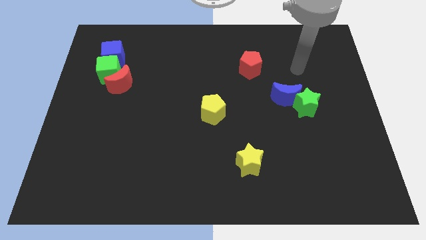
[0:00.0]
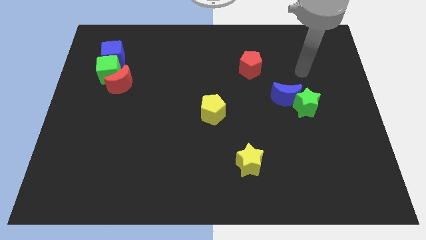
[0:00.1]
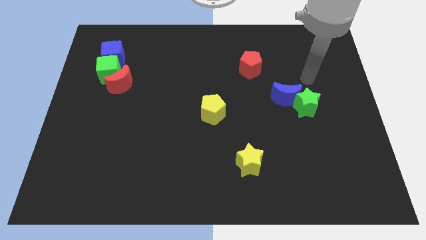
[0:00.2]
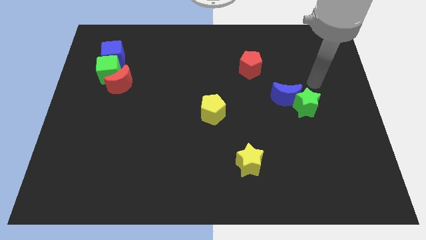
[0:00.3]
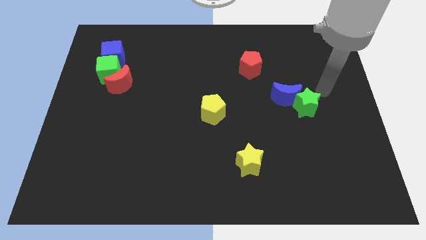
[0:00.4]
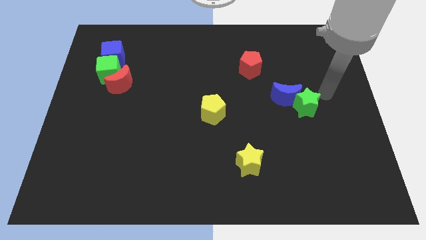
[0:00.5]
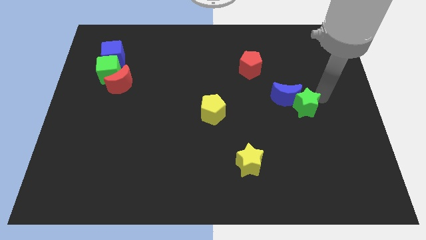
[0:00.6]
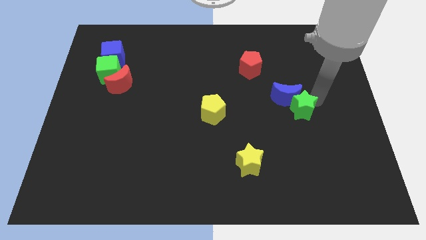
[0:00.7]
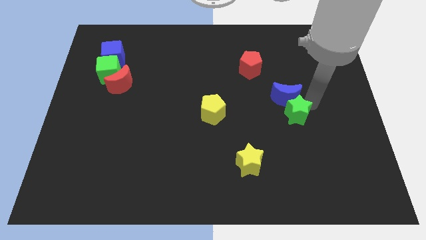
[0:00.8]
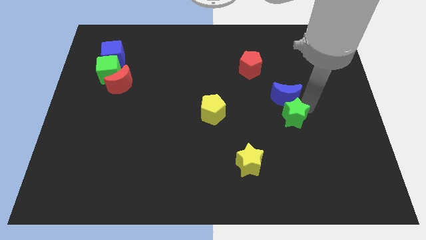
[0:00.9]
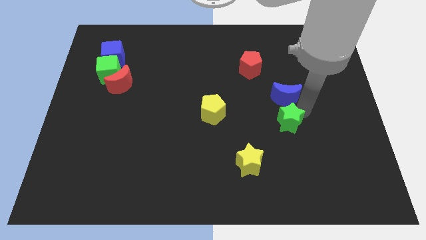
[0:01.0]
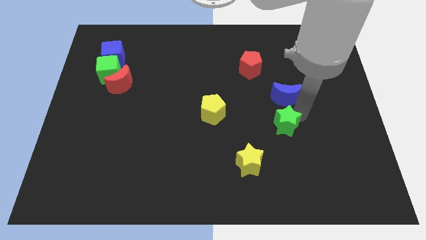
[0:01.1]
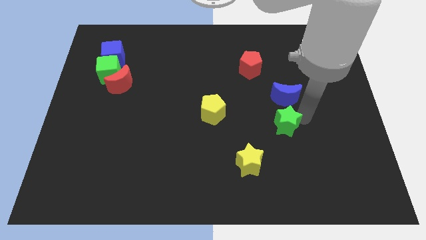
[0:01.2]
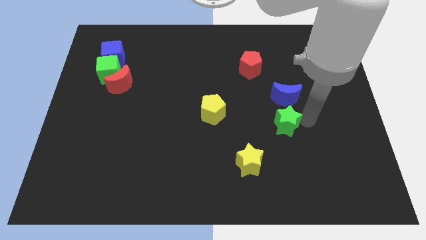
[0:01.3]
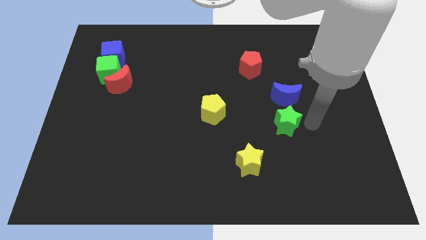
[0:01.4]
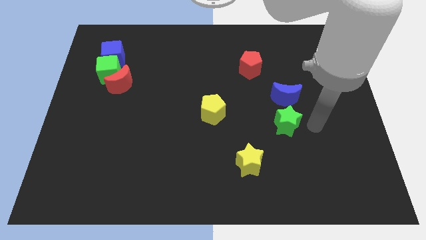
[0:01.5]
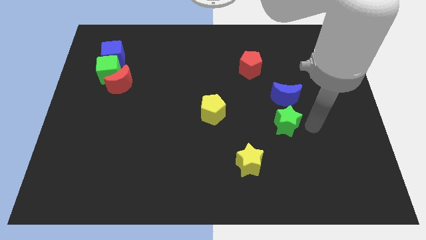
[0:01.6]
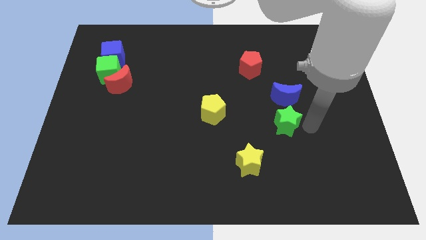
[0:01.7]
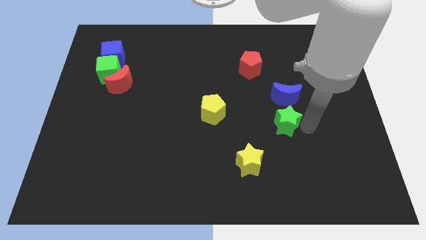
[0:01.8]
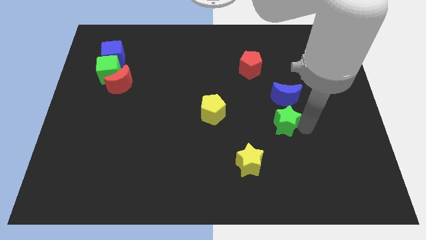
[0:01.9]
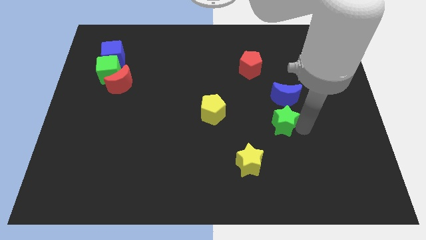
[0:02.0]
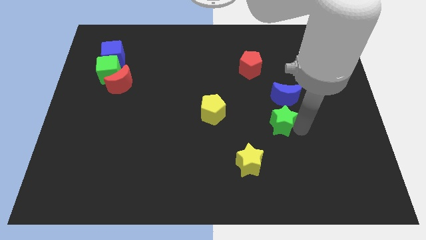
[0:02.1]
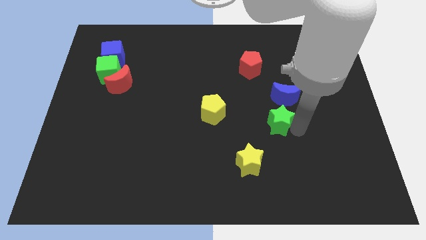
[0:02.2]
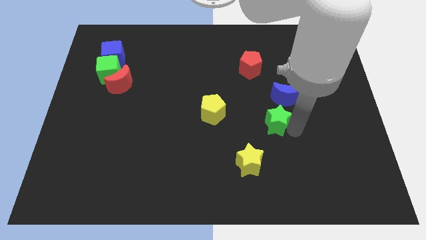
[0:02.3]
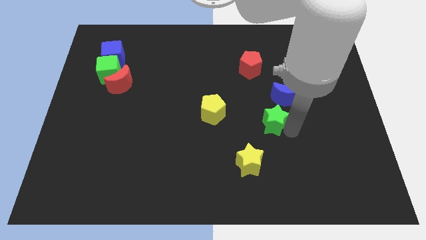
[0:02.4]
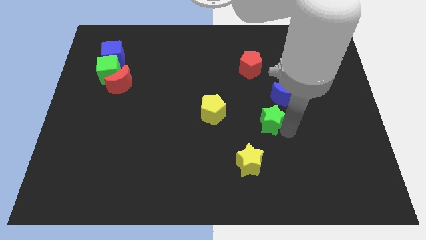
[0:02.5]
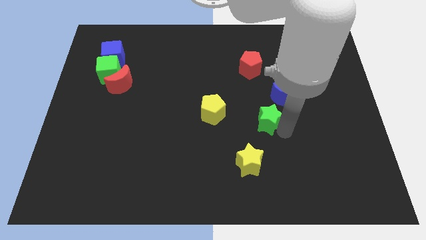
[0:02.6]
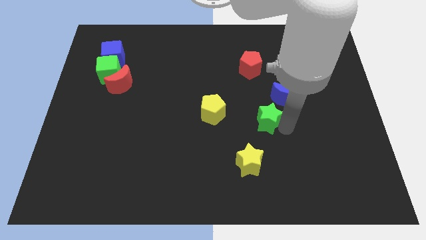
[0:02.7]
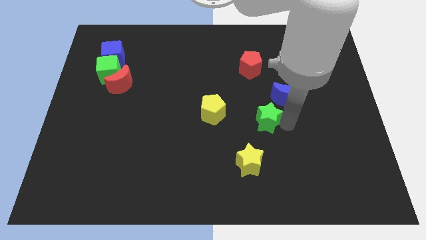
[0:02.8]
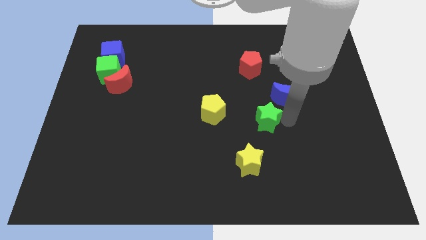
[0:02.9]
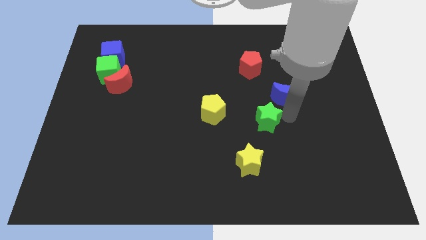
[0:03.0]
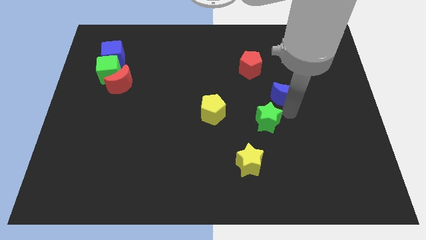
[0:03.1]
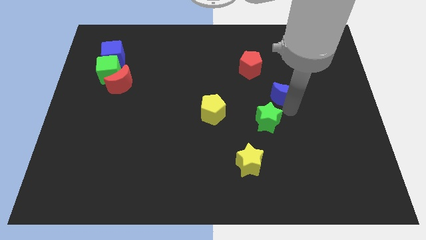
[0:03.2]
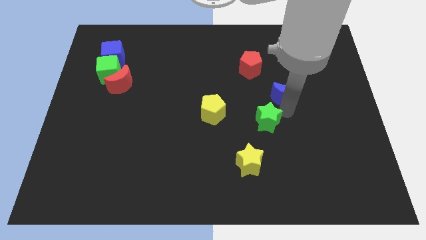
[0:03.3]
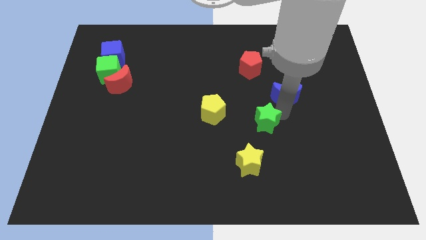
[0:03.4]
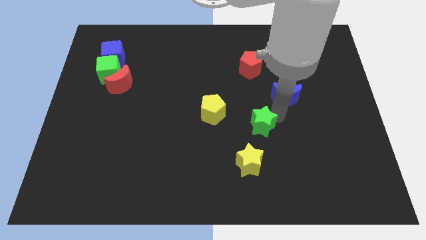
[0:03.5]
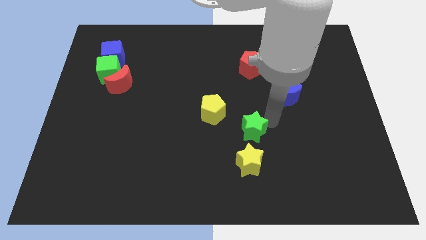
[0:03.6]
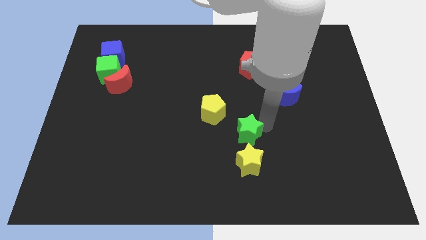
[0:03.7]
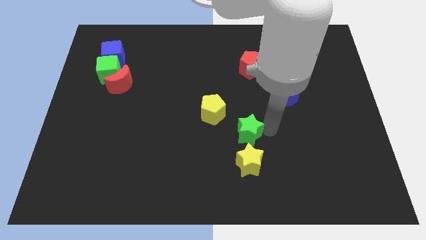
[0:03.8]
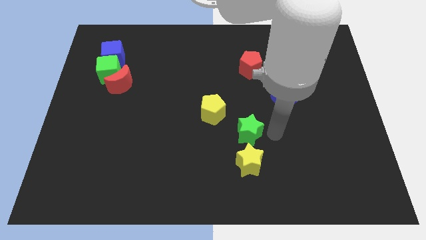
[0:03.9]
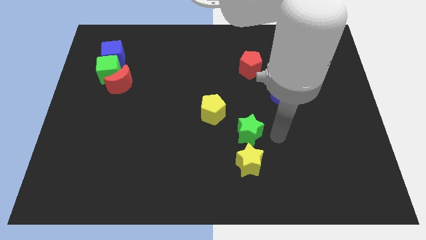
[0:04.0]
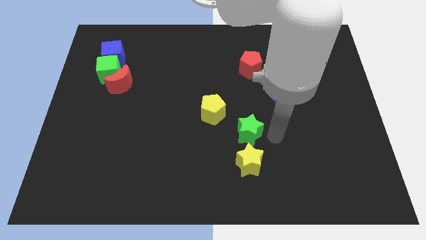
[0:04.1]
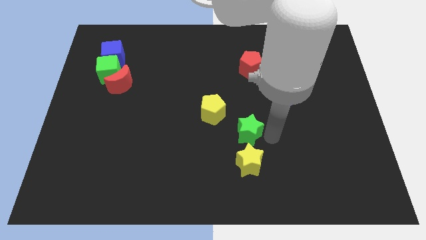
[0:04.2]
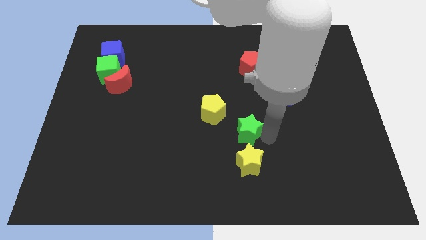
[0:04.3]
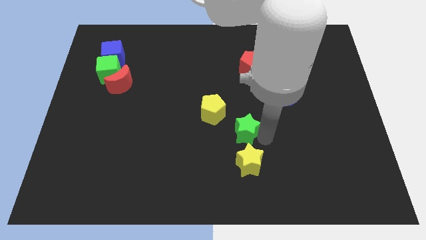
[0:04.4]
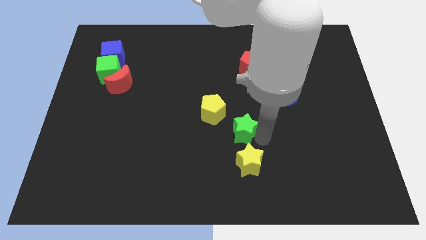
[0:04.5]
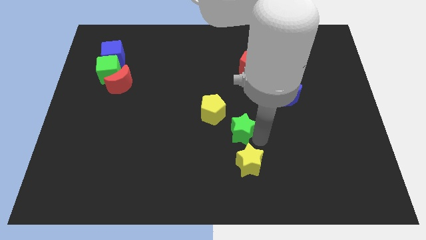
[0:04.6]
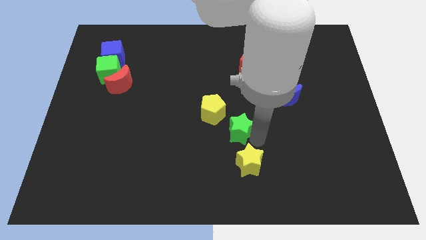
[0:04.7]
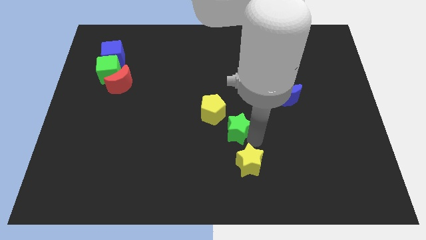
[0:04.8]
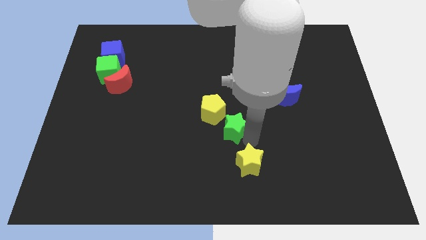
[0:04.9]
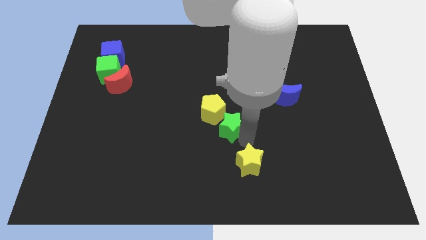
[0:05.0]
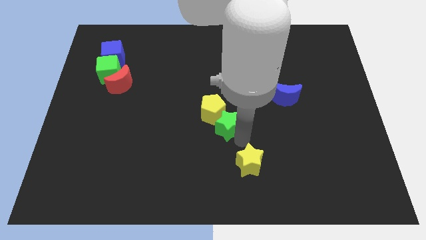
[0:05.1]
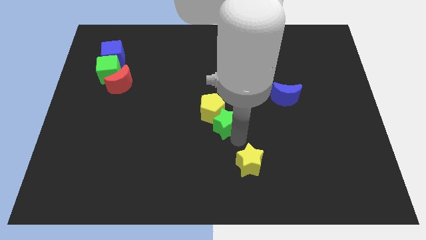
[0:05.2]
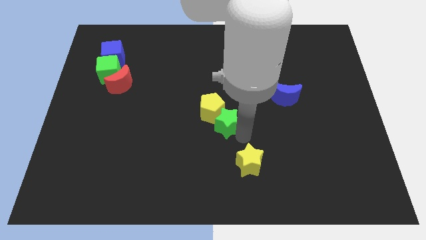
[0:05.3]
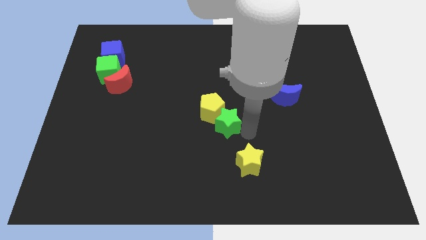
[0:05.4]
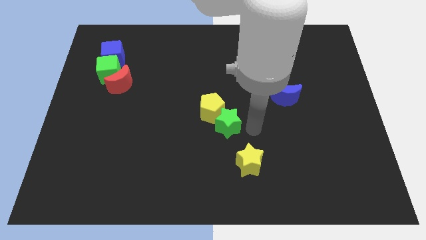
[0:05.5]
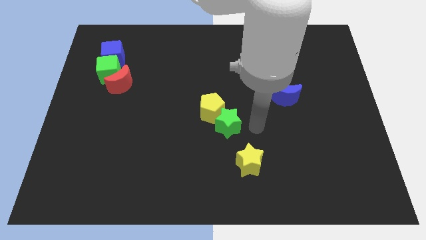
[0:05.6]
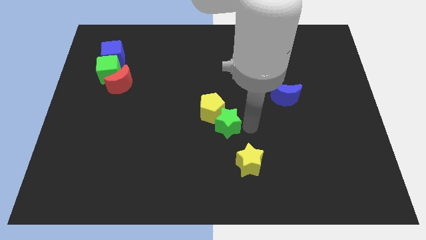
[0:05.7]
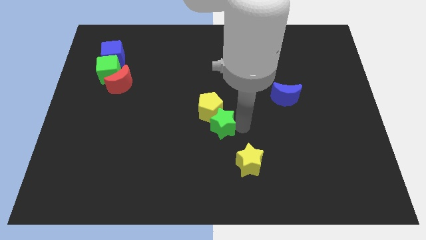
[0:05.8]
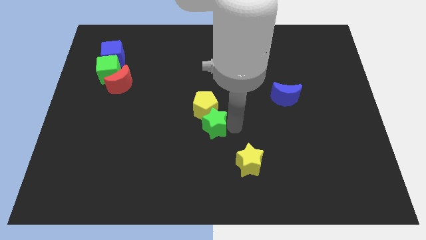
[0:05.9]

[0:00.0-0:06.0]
slide the green star left

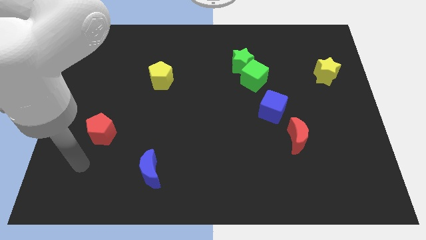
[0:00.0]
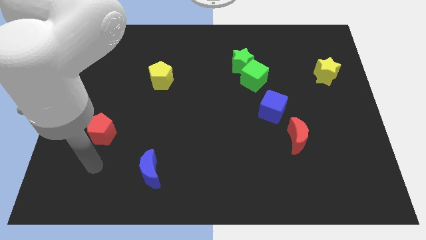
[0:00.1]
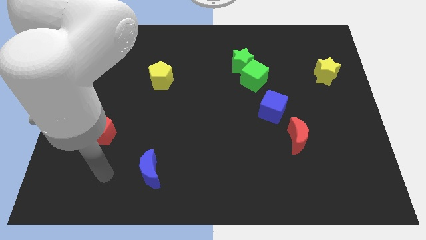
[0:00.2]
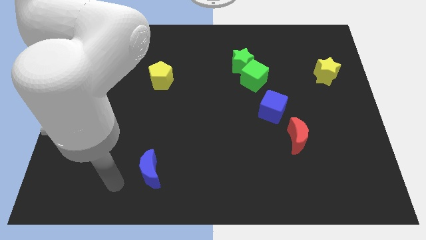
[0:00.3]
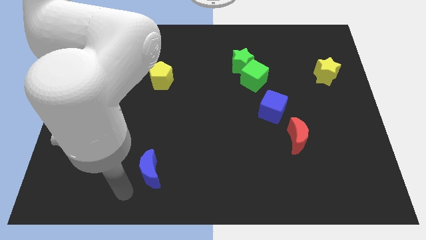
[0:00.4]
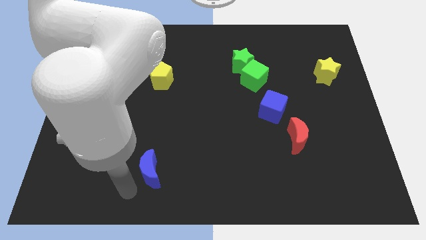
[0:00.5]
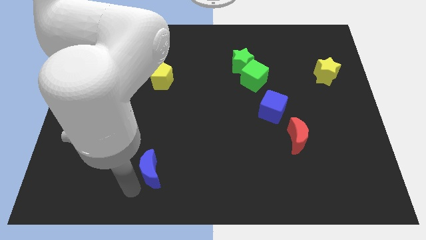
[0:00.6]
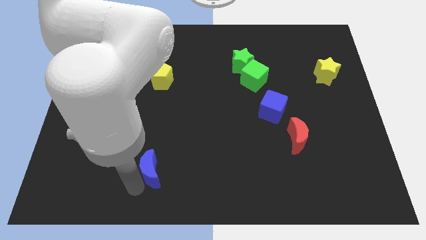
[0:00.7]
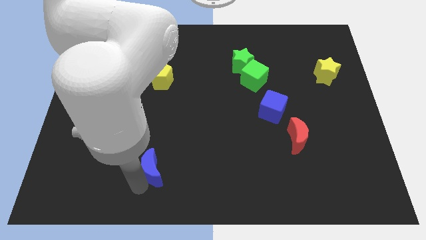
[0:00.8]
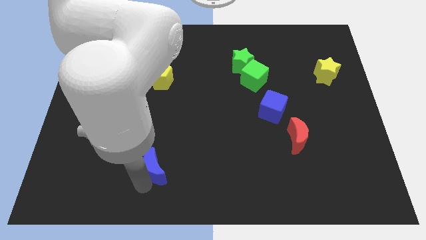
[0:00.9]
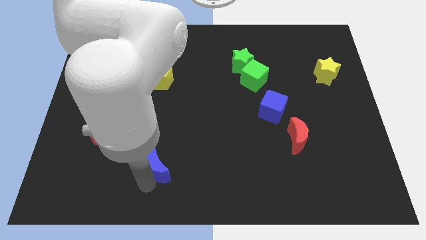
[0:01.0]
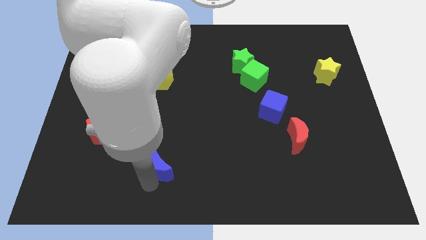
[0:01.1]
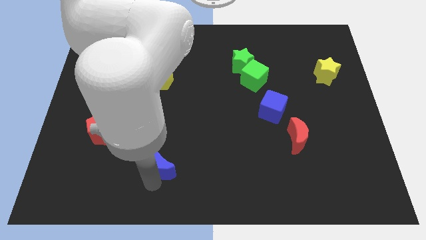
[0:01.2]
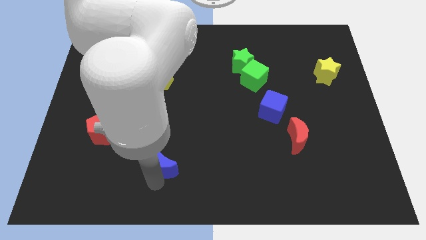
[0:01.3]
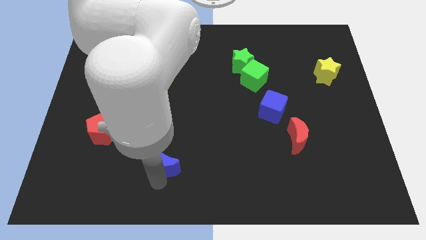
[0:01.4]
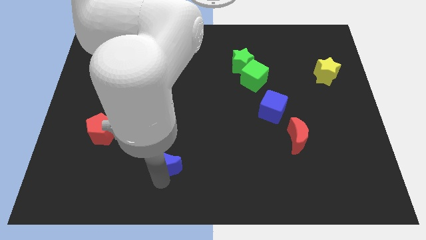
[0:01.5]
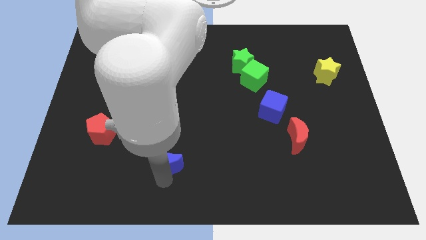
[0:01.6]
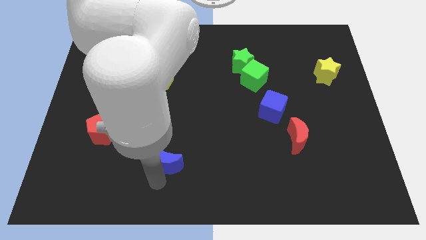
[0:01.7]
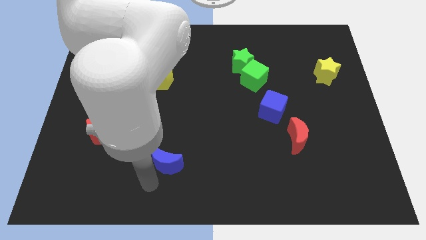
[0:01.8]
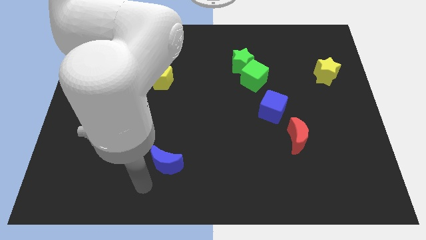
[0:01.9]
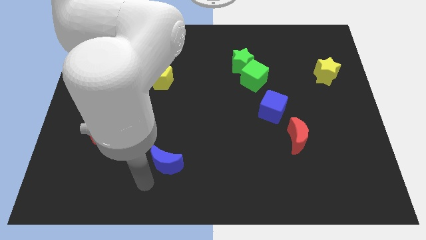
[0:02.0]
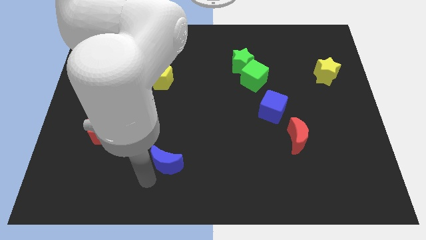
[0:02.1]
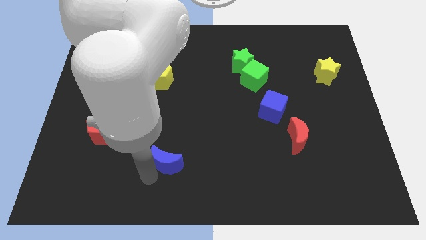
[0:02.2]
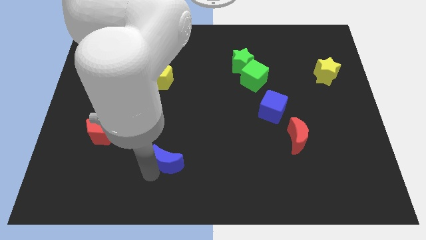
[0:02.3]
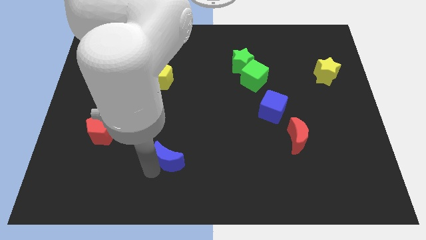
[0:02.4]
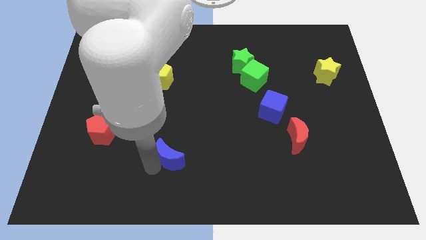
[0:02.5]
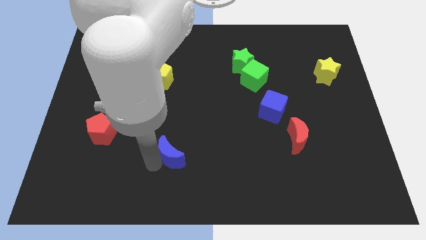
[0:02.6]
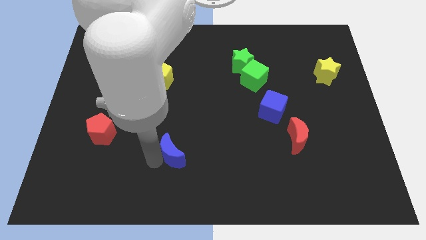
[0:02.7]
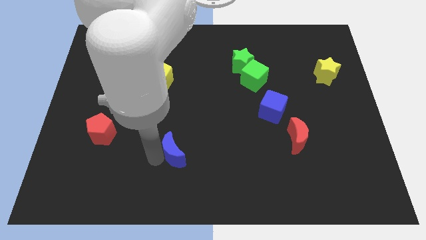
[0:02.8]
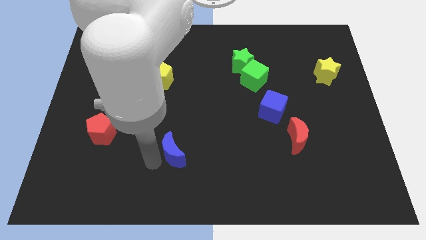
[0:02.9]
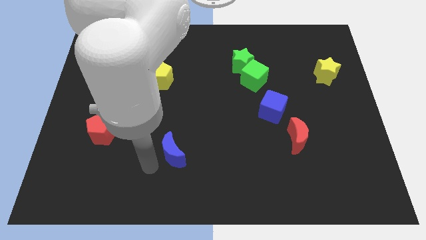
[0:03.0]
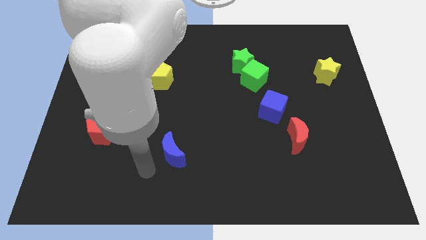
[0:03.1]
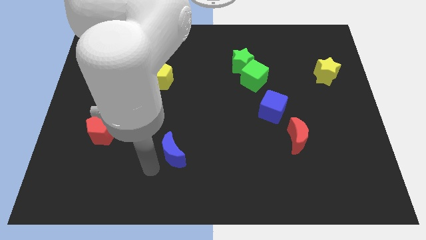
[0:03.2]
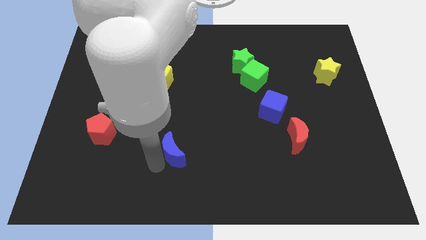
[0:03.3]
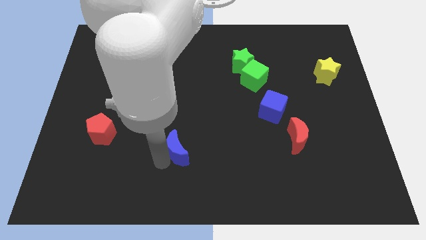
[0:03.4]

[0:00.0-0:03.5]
push the blue moon up and then to the right a bit
